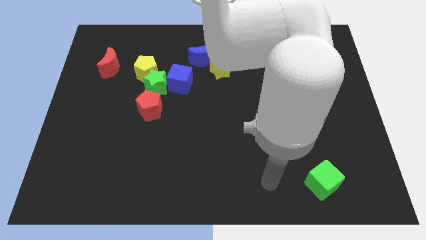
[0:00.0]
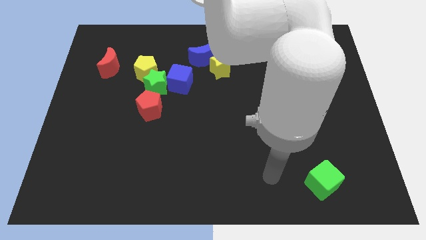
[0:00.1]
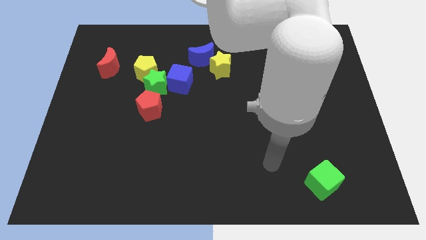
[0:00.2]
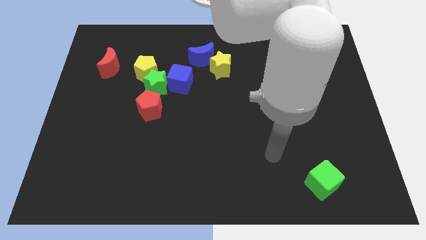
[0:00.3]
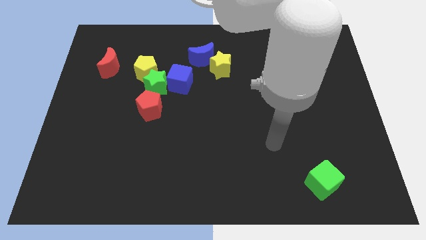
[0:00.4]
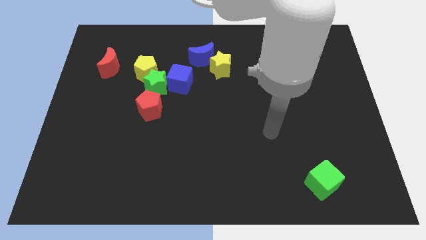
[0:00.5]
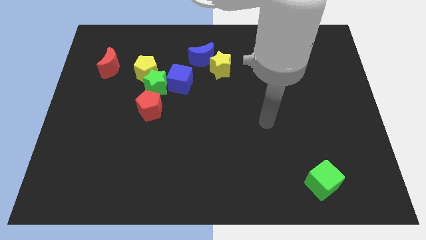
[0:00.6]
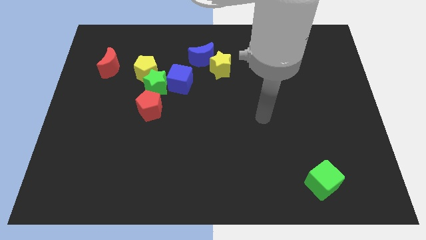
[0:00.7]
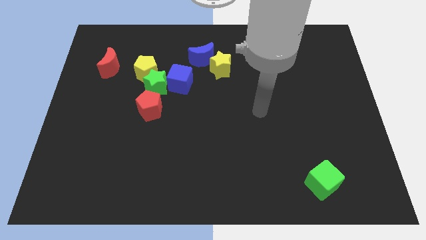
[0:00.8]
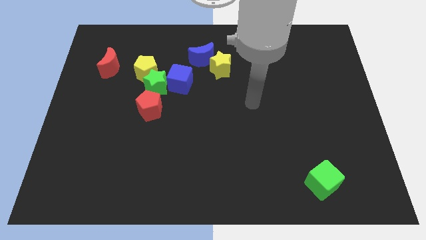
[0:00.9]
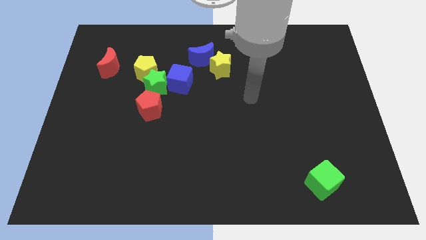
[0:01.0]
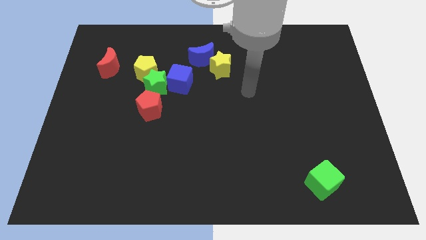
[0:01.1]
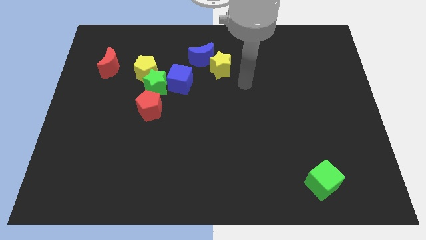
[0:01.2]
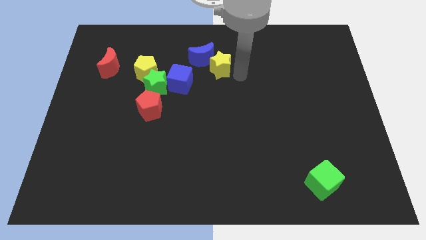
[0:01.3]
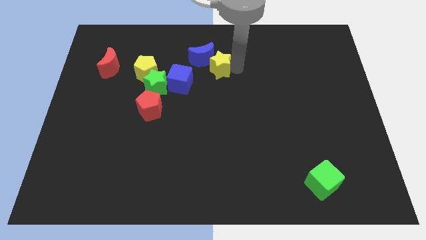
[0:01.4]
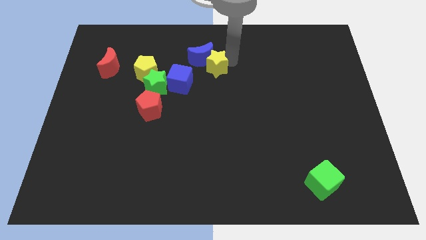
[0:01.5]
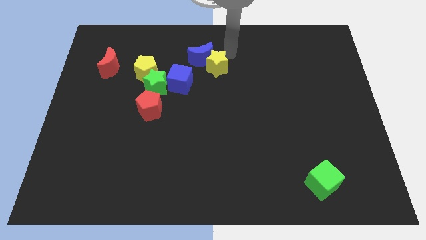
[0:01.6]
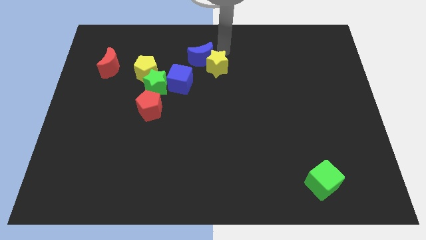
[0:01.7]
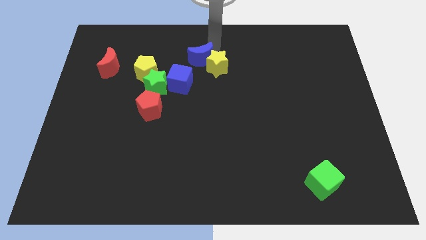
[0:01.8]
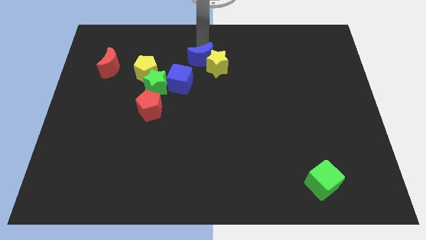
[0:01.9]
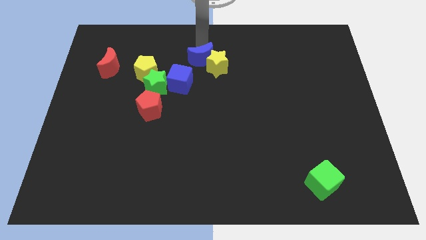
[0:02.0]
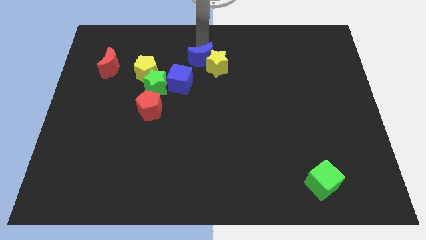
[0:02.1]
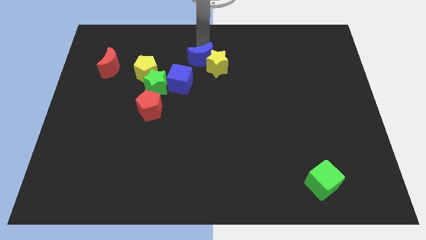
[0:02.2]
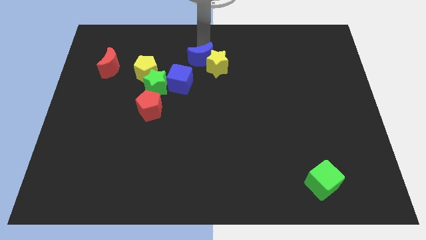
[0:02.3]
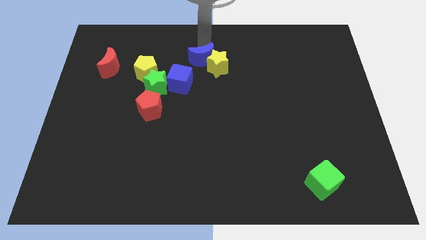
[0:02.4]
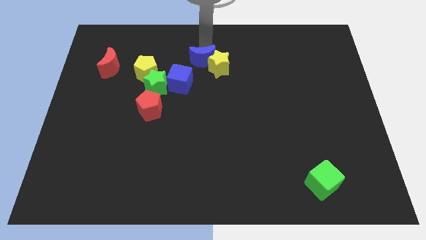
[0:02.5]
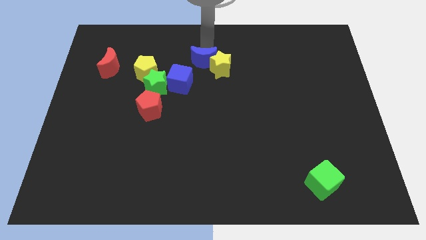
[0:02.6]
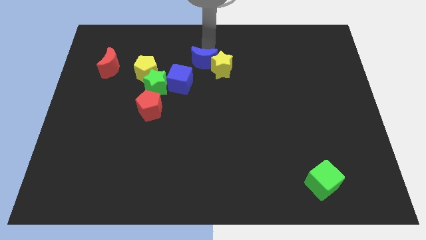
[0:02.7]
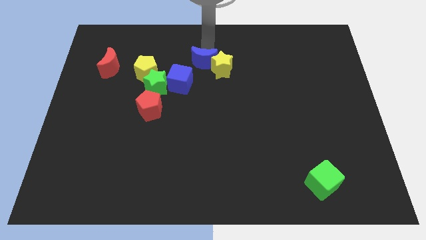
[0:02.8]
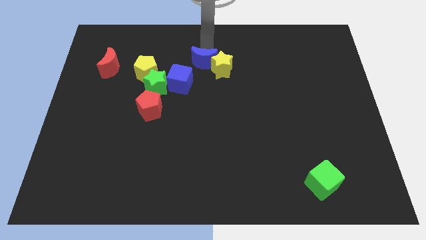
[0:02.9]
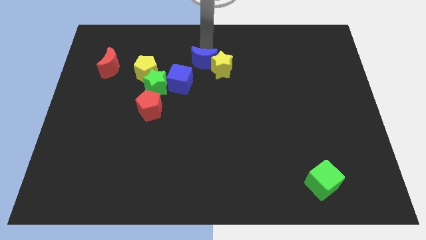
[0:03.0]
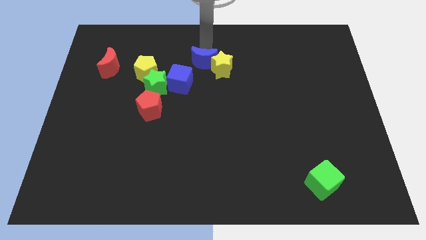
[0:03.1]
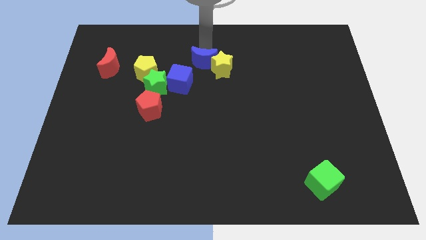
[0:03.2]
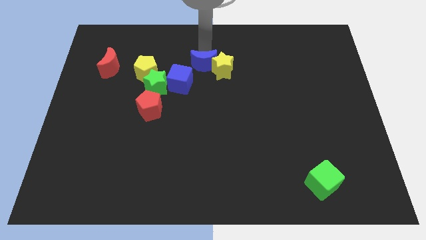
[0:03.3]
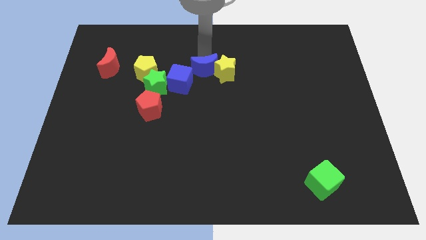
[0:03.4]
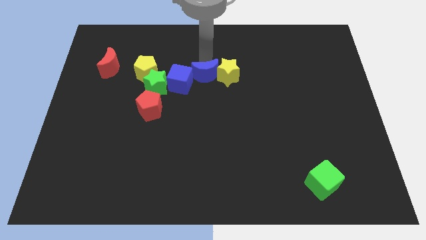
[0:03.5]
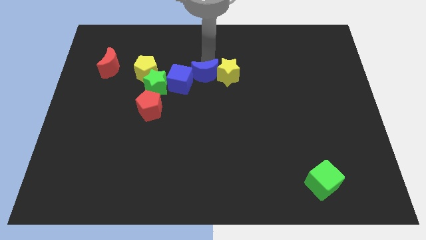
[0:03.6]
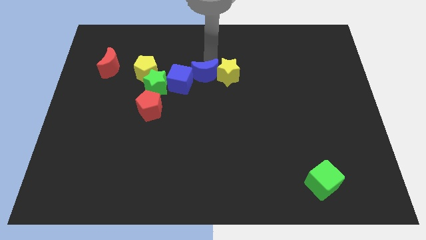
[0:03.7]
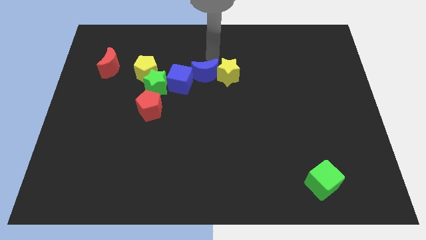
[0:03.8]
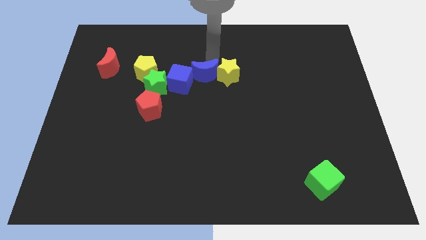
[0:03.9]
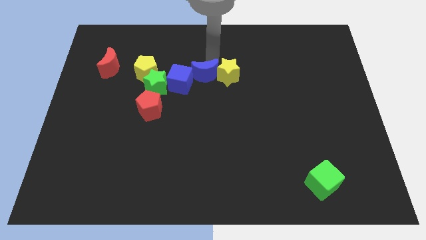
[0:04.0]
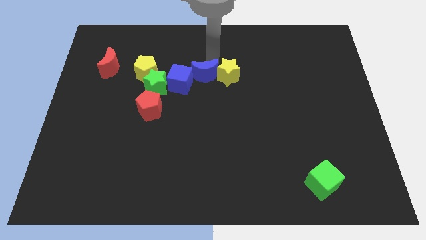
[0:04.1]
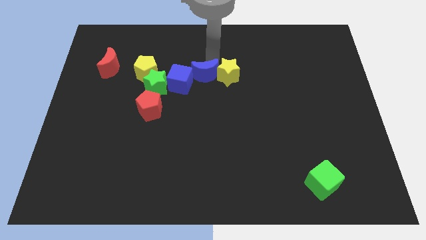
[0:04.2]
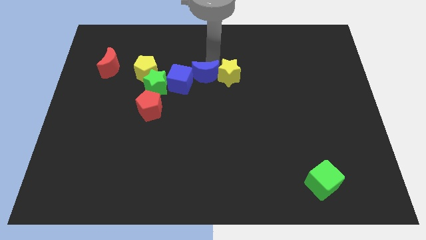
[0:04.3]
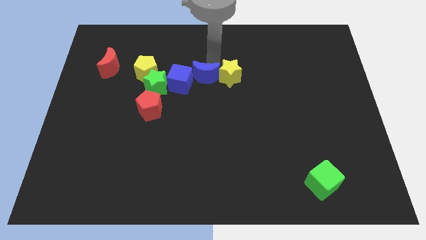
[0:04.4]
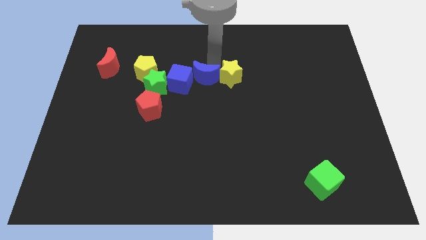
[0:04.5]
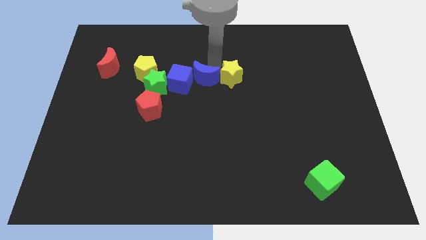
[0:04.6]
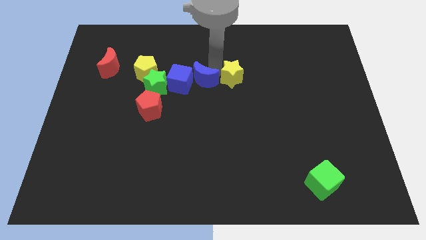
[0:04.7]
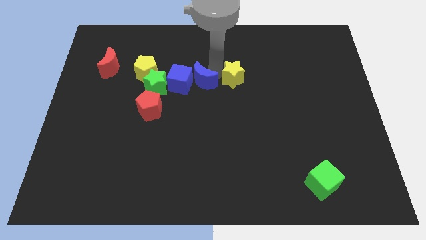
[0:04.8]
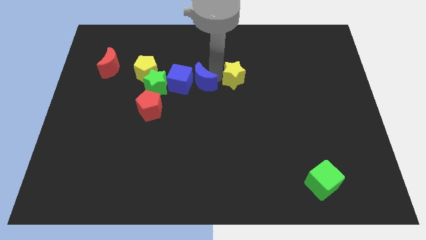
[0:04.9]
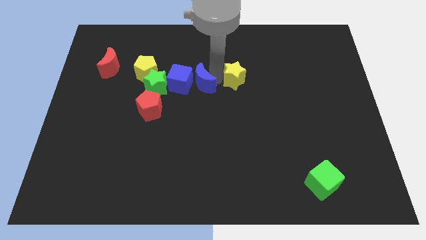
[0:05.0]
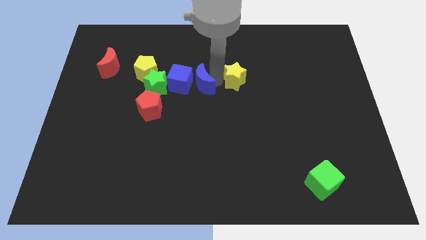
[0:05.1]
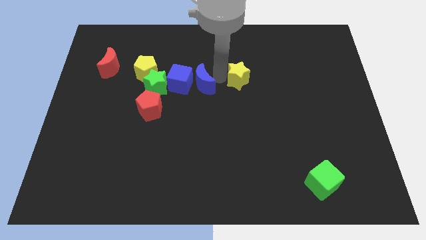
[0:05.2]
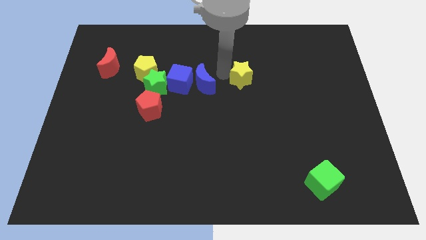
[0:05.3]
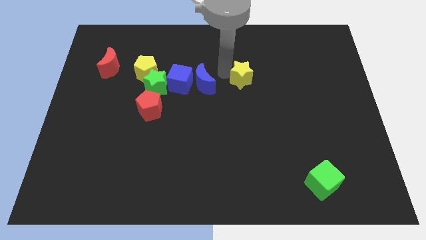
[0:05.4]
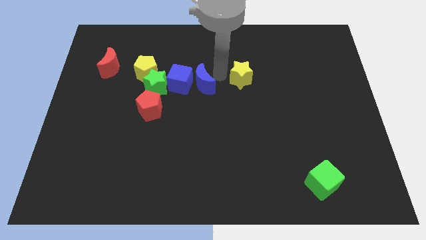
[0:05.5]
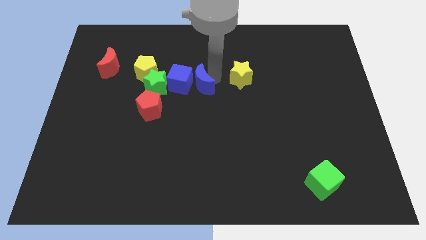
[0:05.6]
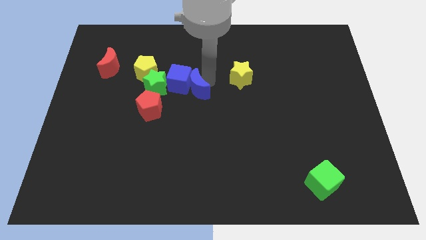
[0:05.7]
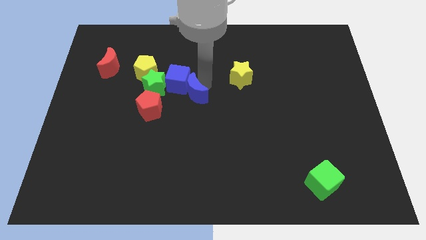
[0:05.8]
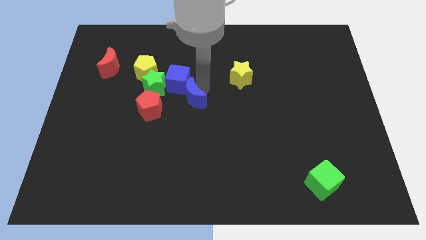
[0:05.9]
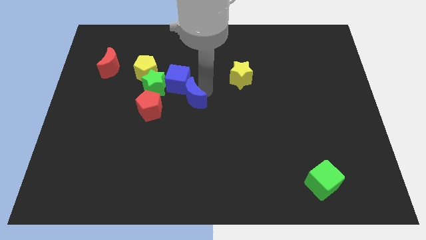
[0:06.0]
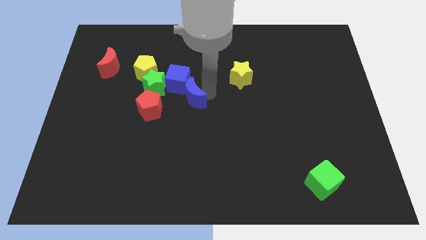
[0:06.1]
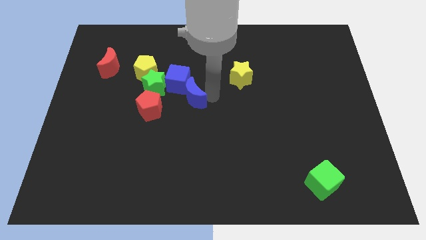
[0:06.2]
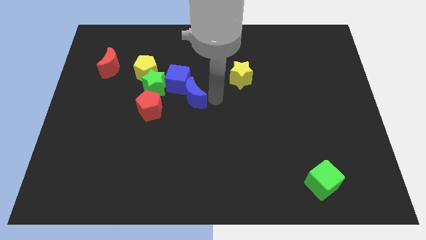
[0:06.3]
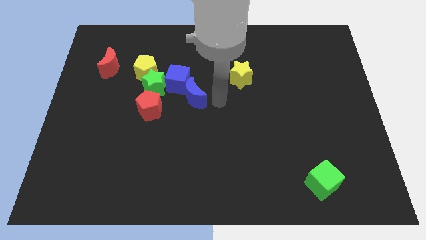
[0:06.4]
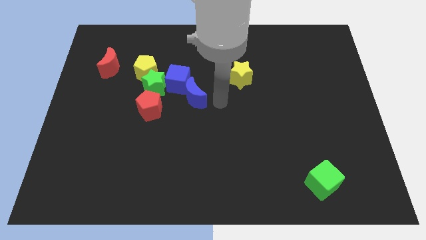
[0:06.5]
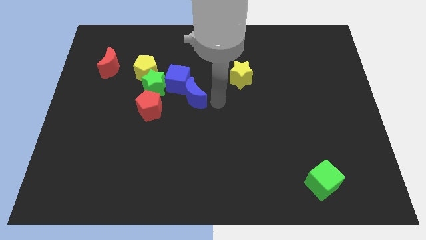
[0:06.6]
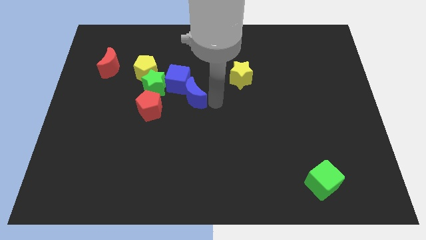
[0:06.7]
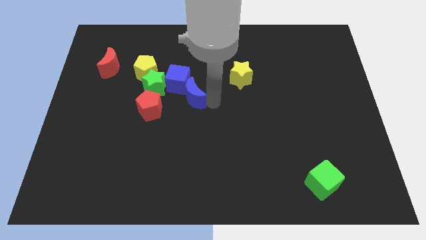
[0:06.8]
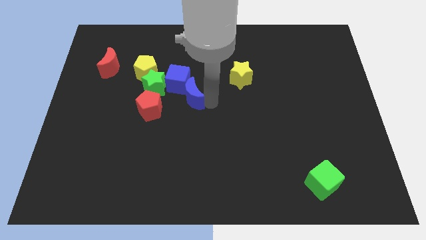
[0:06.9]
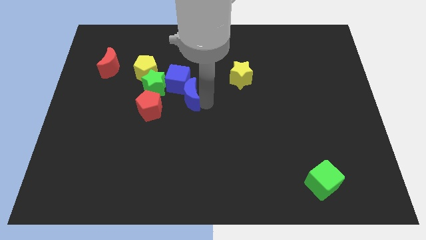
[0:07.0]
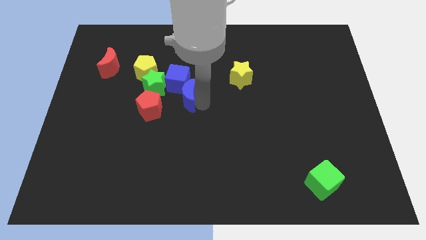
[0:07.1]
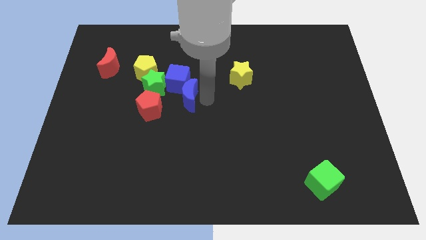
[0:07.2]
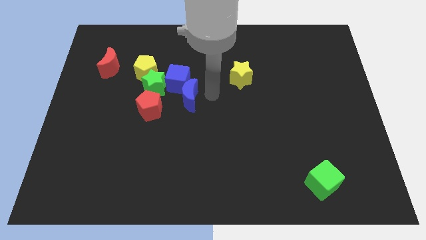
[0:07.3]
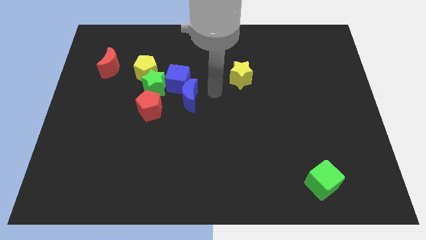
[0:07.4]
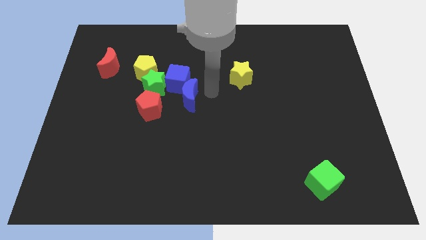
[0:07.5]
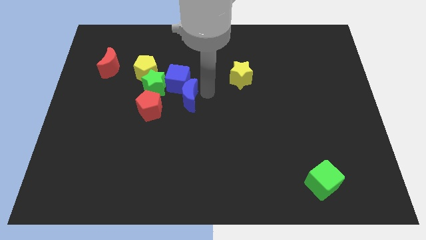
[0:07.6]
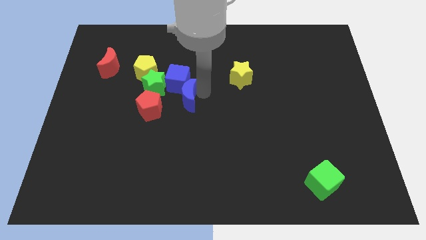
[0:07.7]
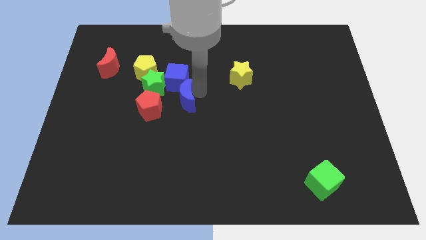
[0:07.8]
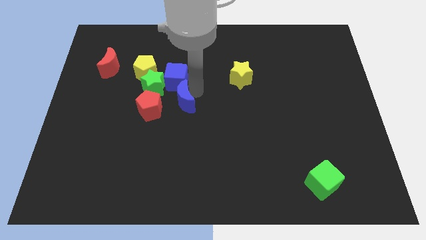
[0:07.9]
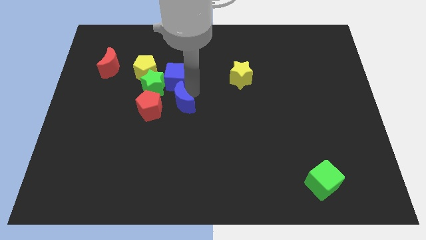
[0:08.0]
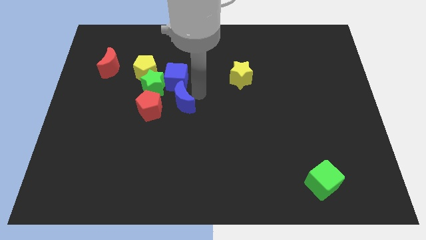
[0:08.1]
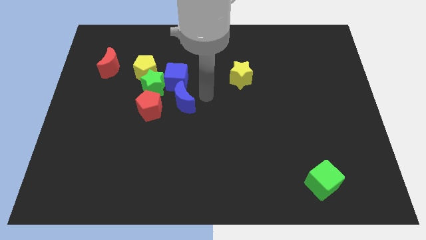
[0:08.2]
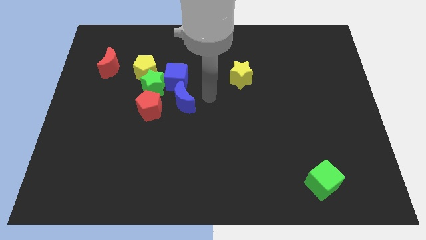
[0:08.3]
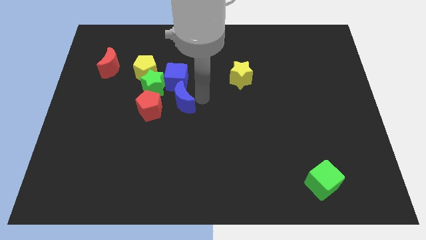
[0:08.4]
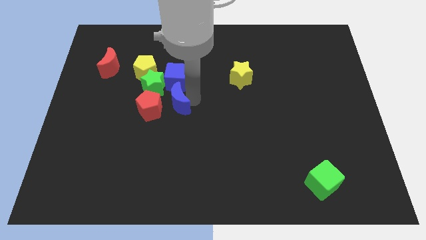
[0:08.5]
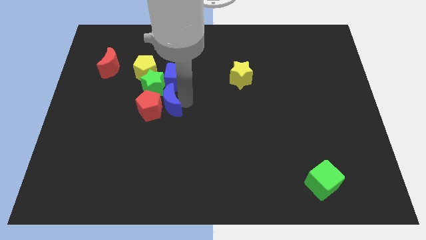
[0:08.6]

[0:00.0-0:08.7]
put the blue moon next to the red pentagon
